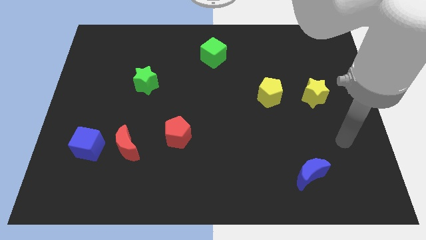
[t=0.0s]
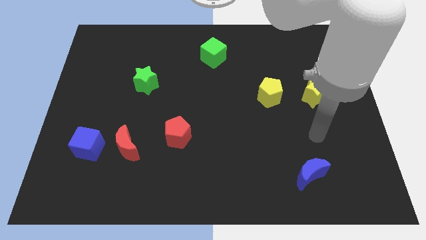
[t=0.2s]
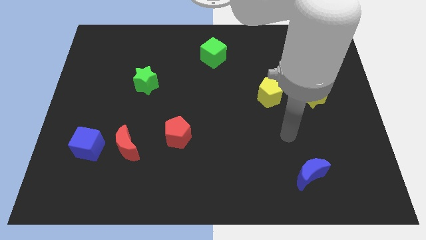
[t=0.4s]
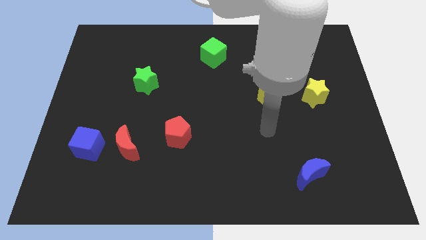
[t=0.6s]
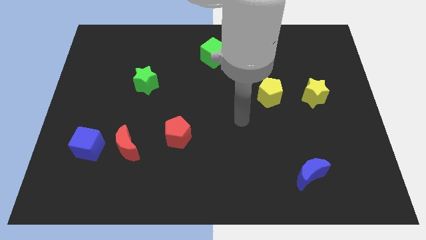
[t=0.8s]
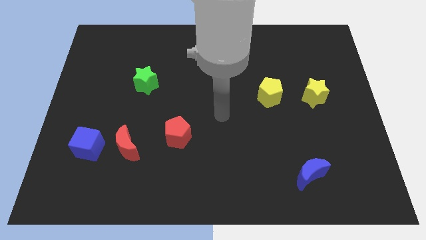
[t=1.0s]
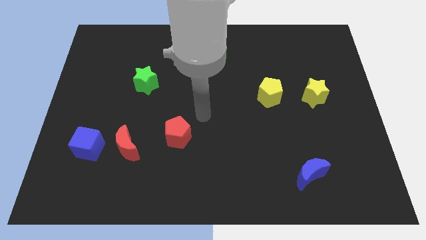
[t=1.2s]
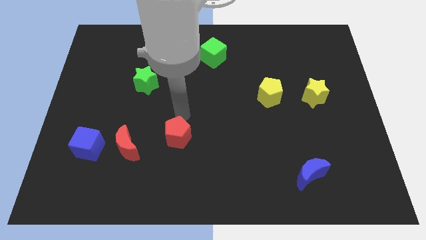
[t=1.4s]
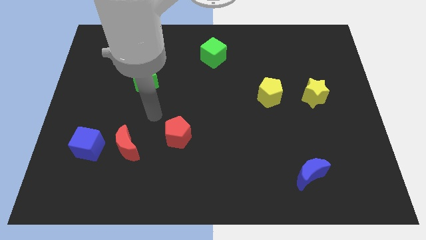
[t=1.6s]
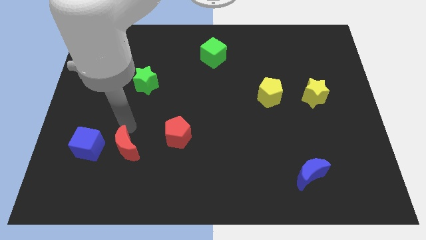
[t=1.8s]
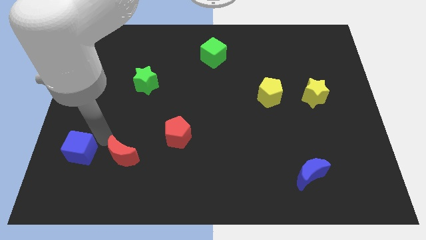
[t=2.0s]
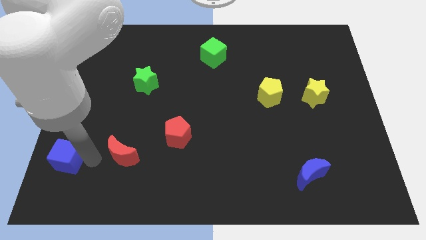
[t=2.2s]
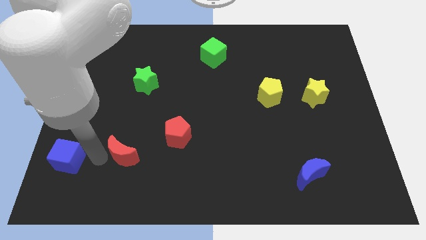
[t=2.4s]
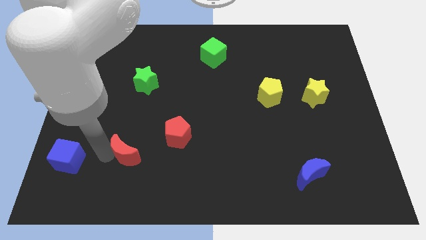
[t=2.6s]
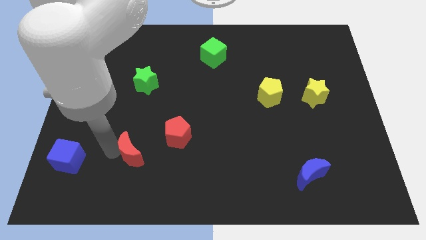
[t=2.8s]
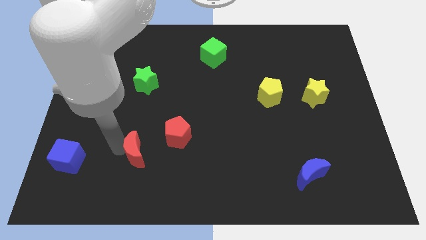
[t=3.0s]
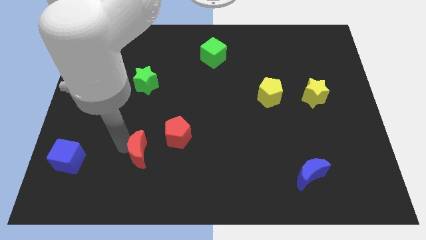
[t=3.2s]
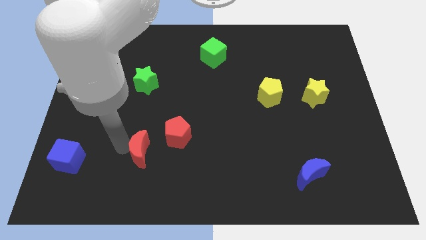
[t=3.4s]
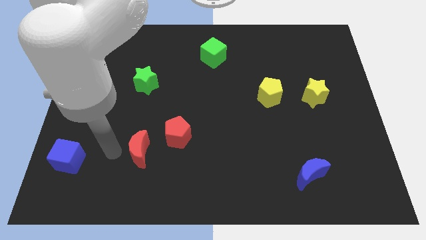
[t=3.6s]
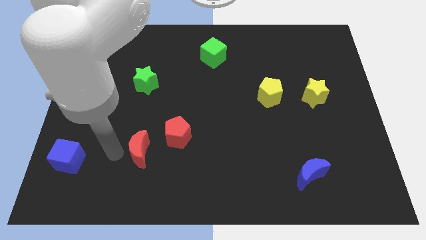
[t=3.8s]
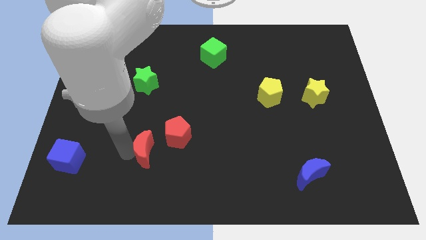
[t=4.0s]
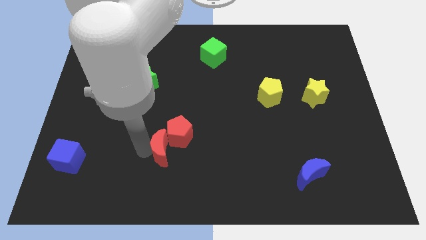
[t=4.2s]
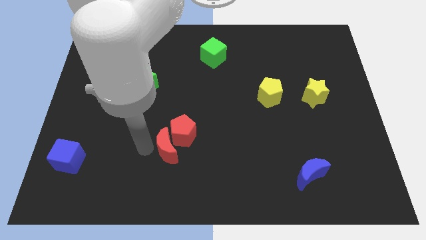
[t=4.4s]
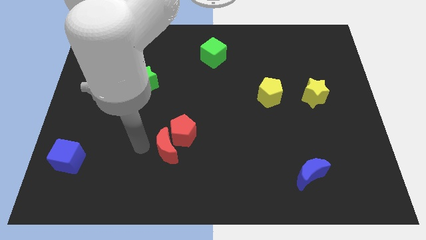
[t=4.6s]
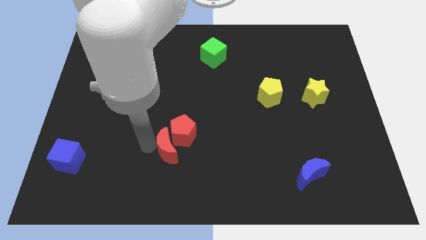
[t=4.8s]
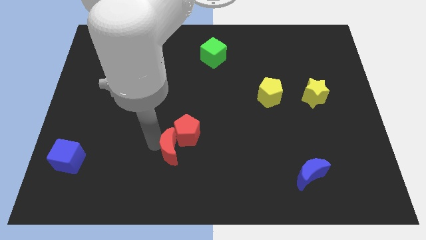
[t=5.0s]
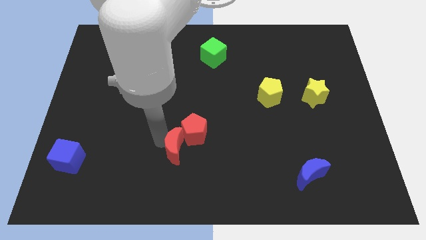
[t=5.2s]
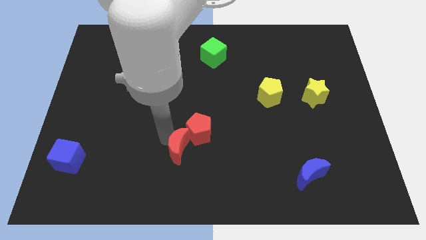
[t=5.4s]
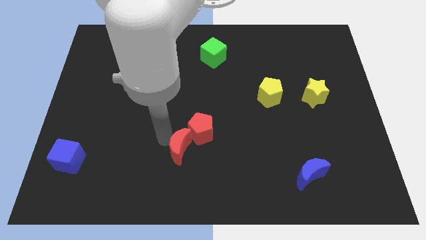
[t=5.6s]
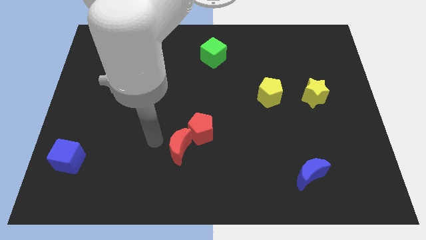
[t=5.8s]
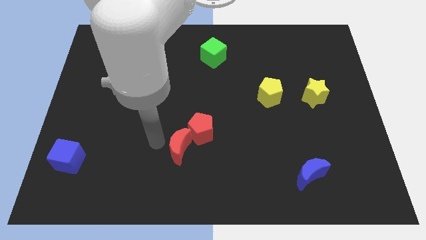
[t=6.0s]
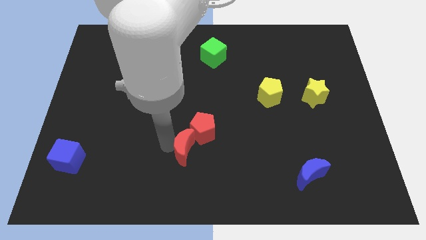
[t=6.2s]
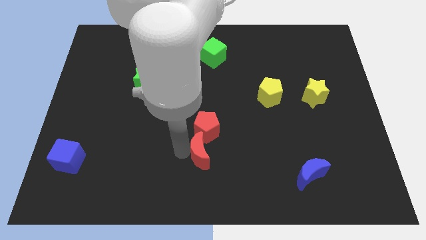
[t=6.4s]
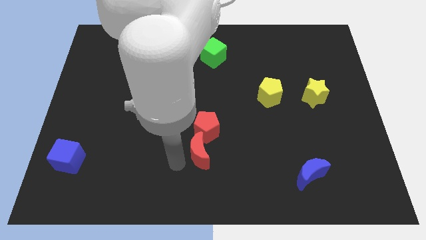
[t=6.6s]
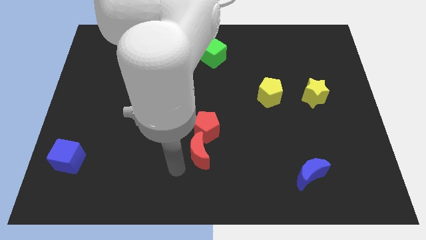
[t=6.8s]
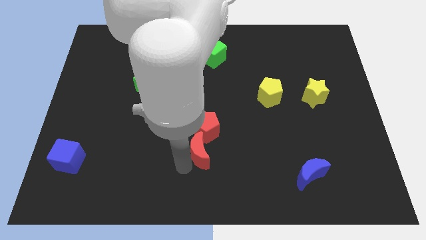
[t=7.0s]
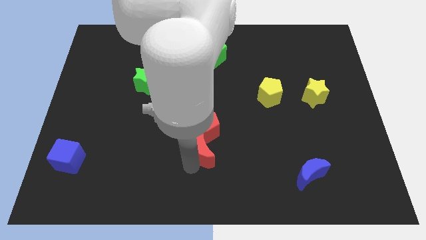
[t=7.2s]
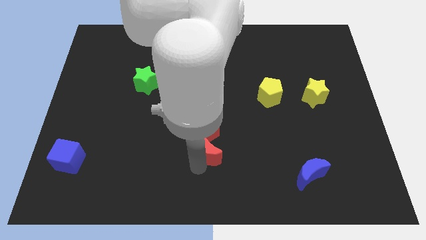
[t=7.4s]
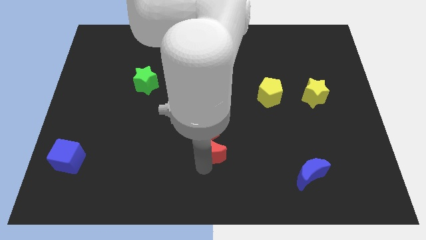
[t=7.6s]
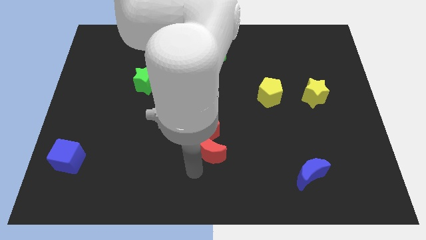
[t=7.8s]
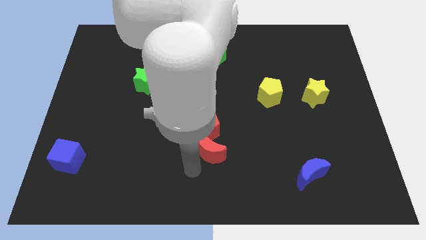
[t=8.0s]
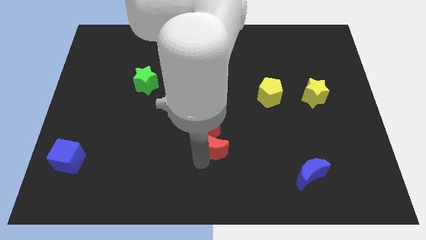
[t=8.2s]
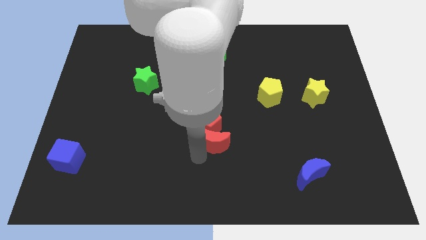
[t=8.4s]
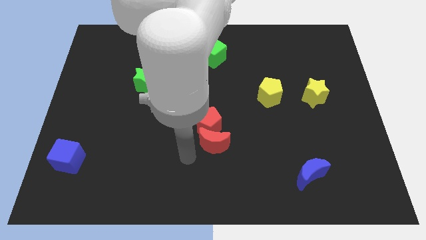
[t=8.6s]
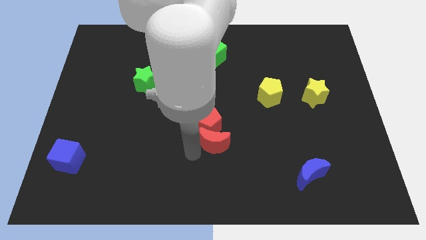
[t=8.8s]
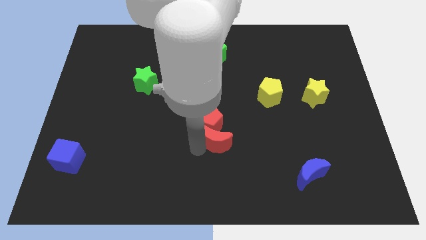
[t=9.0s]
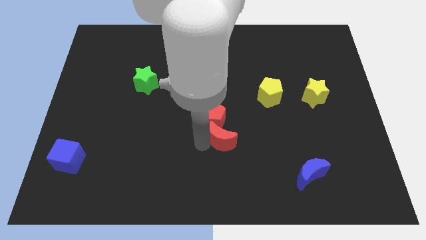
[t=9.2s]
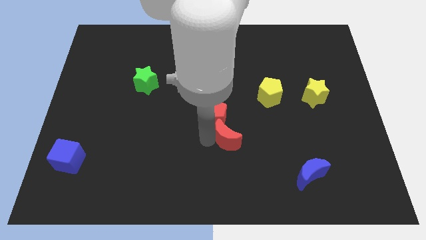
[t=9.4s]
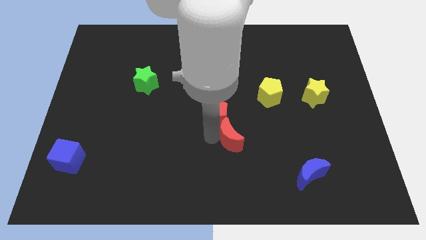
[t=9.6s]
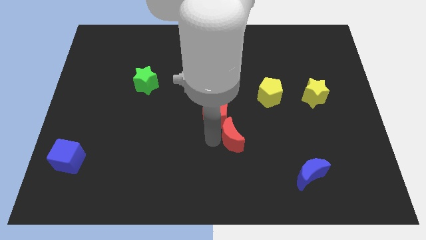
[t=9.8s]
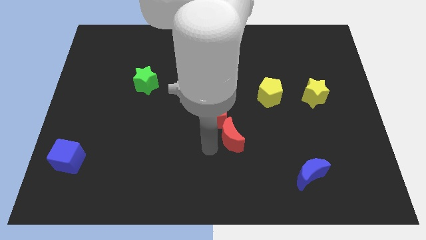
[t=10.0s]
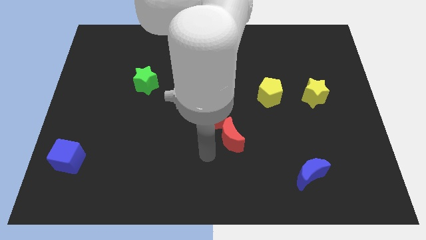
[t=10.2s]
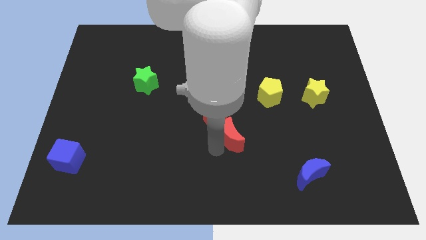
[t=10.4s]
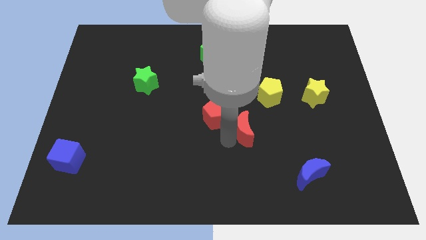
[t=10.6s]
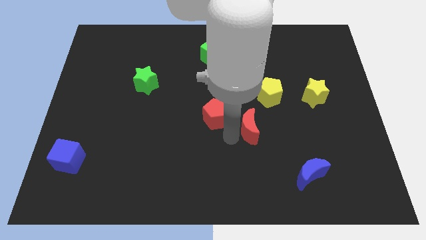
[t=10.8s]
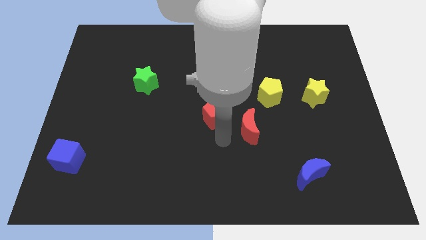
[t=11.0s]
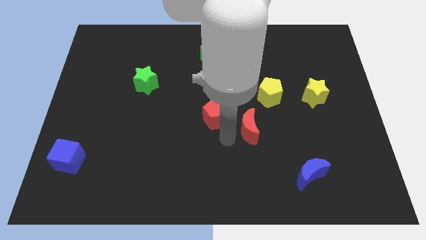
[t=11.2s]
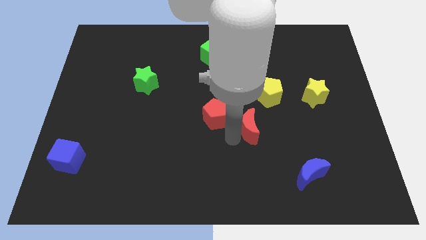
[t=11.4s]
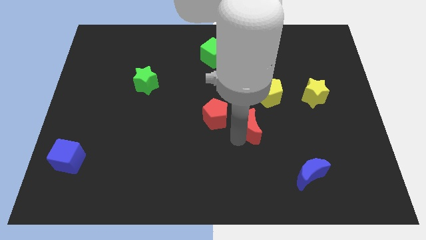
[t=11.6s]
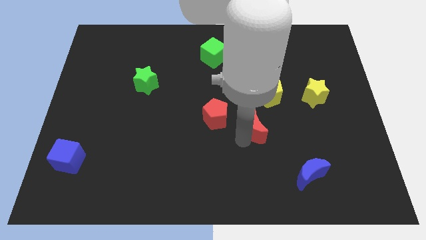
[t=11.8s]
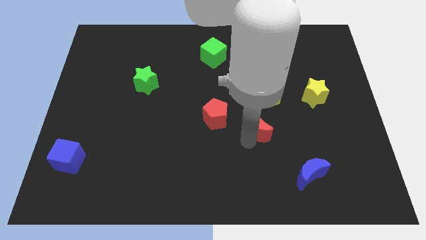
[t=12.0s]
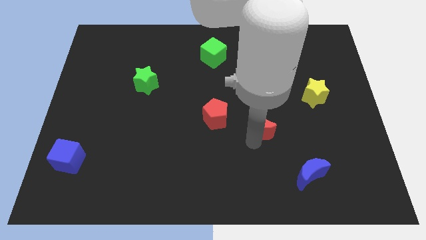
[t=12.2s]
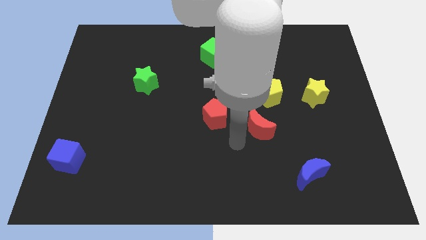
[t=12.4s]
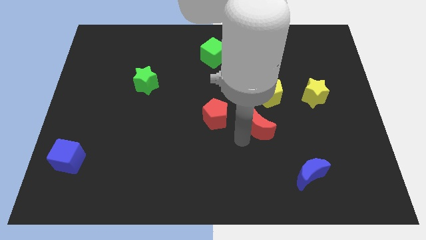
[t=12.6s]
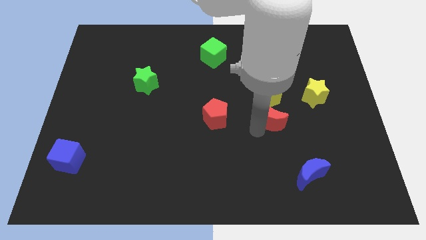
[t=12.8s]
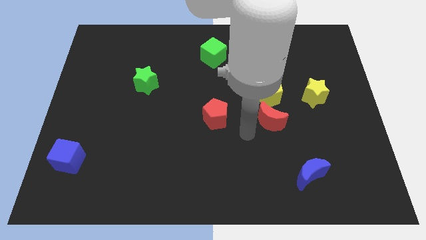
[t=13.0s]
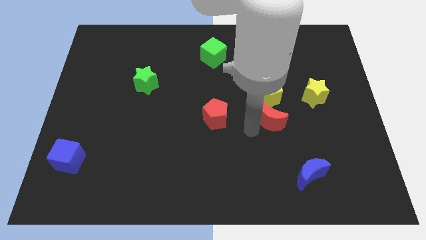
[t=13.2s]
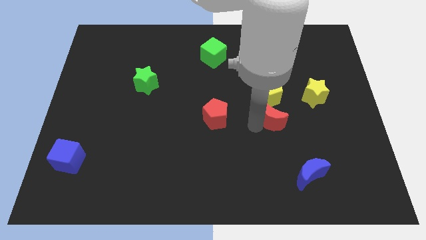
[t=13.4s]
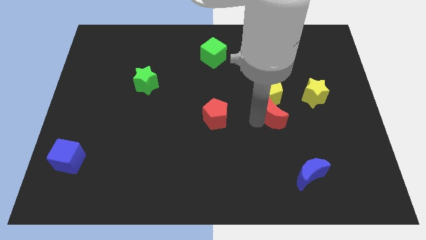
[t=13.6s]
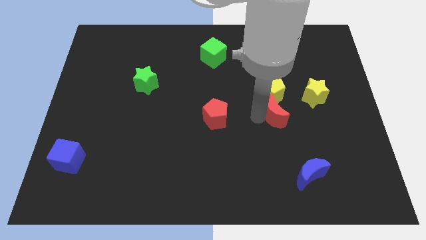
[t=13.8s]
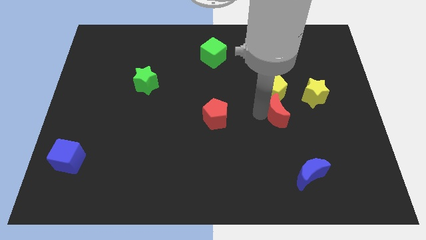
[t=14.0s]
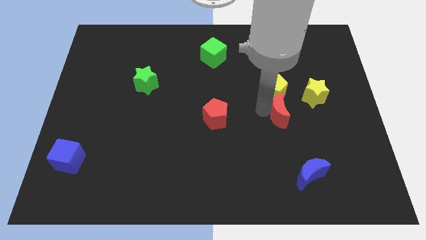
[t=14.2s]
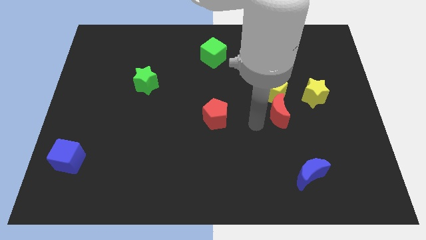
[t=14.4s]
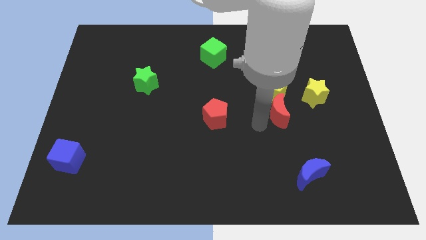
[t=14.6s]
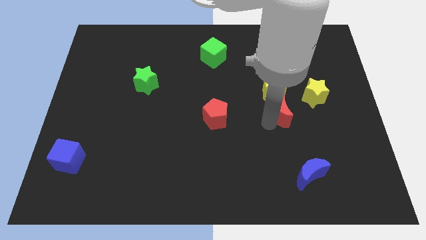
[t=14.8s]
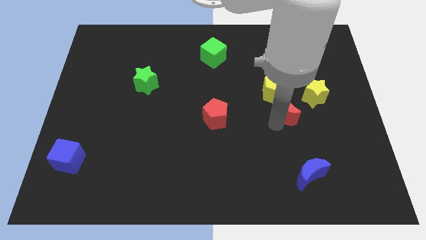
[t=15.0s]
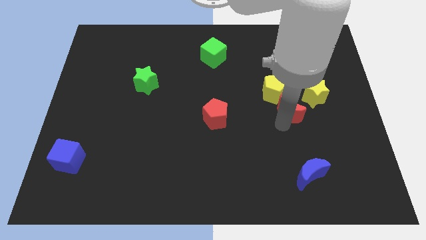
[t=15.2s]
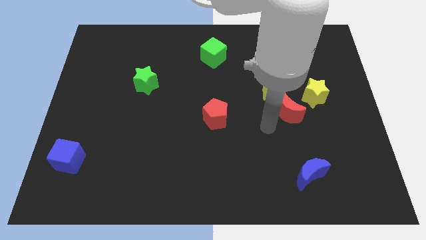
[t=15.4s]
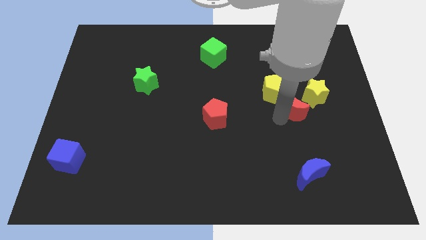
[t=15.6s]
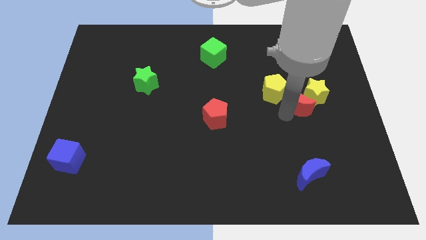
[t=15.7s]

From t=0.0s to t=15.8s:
slide the red moon towards the yellow star
